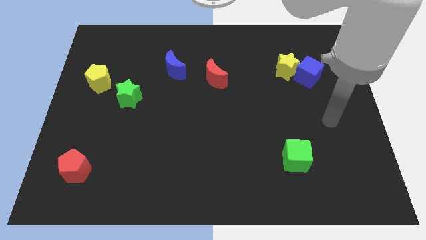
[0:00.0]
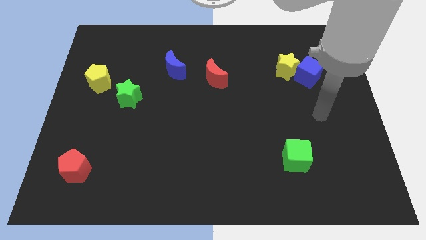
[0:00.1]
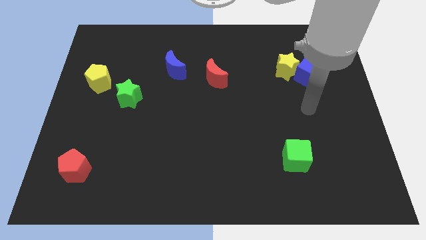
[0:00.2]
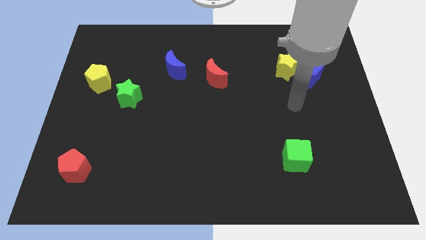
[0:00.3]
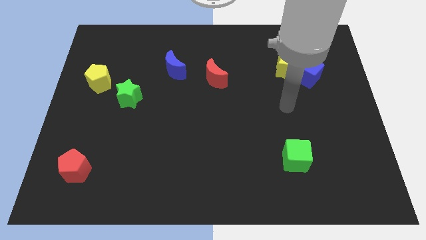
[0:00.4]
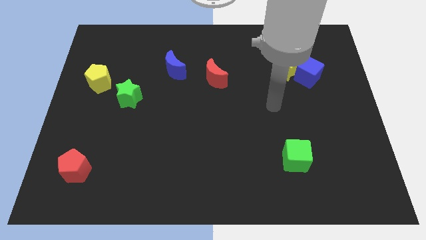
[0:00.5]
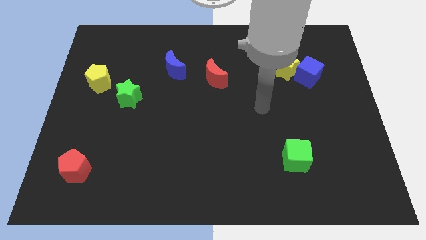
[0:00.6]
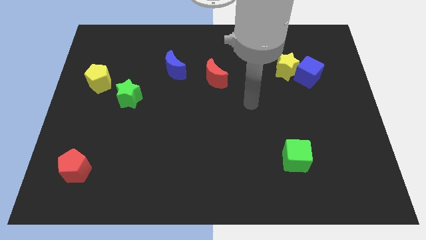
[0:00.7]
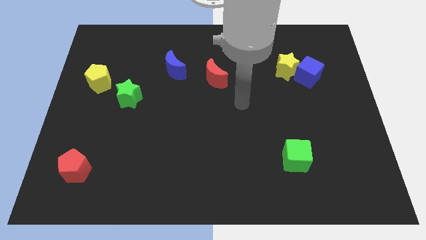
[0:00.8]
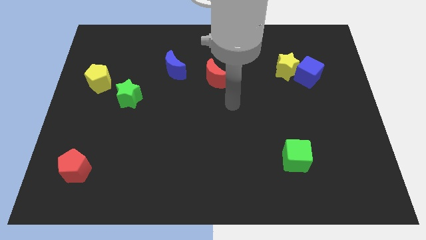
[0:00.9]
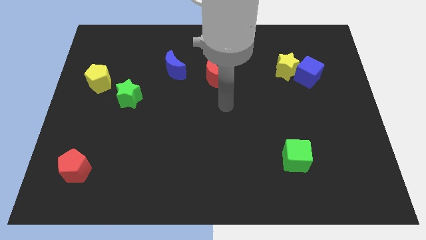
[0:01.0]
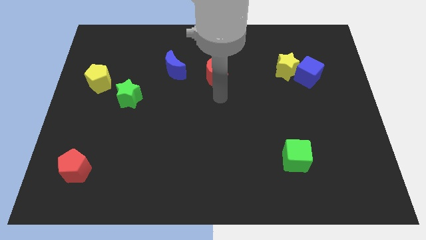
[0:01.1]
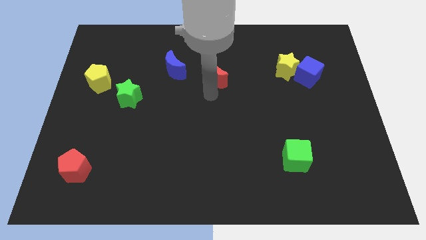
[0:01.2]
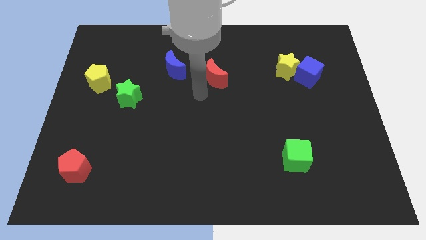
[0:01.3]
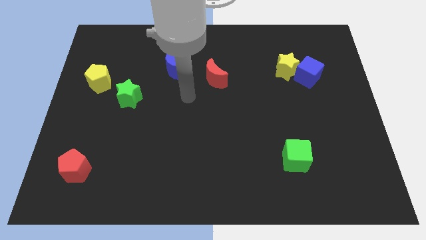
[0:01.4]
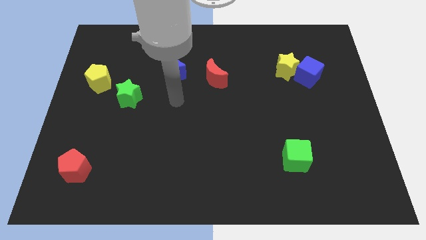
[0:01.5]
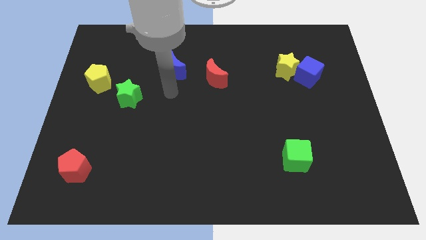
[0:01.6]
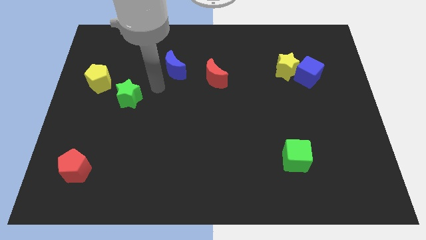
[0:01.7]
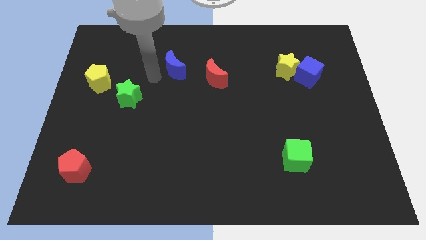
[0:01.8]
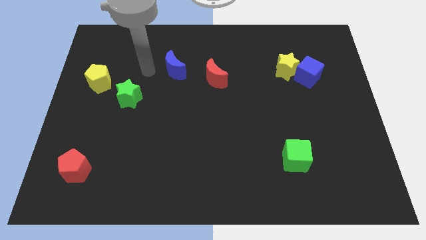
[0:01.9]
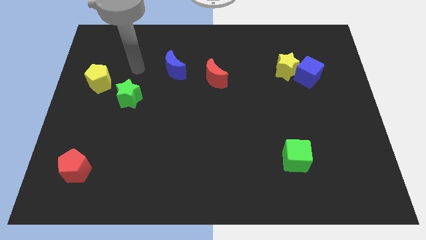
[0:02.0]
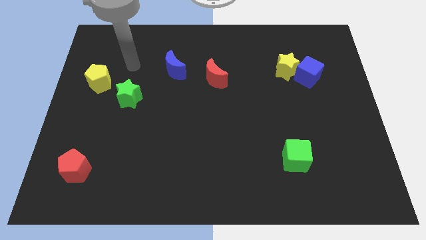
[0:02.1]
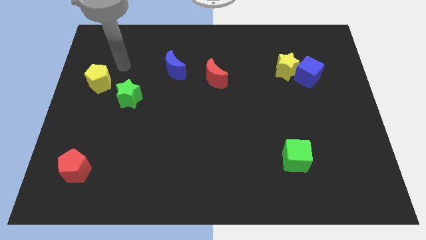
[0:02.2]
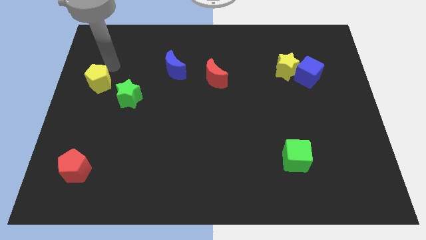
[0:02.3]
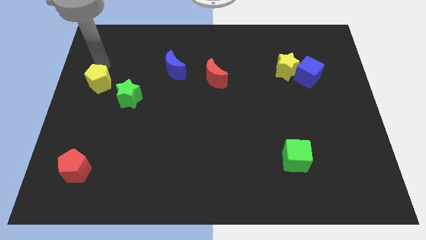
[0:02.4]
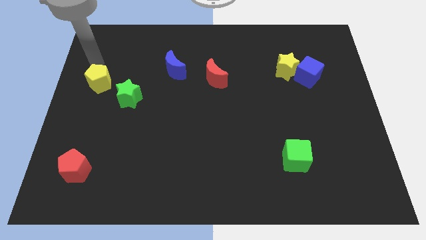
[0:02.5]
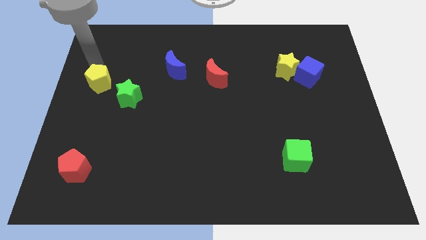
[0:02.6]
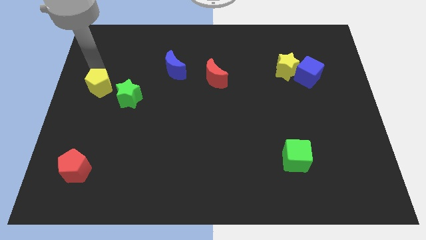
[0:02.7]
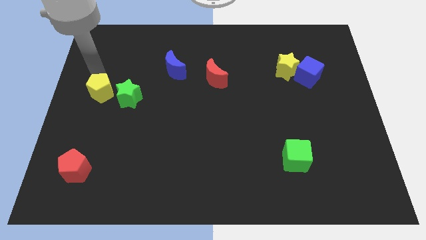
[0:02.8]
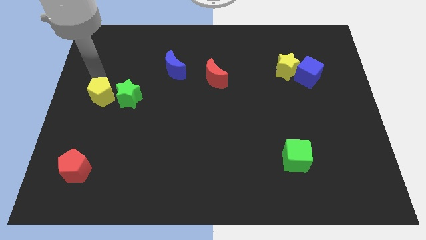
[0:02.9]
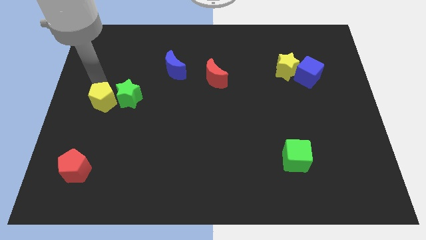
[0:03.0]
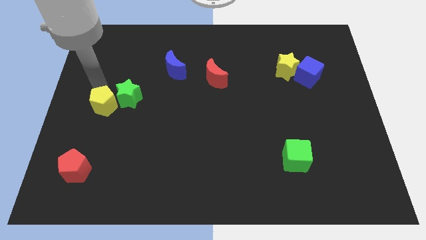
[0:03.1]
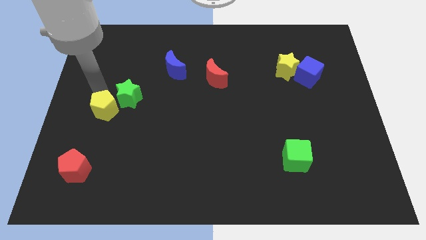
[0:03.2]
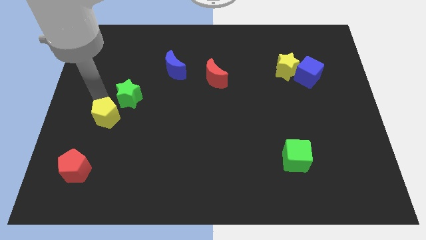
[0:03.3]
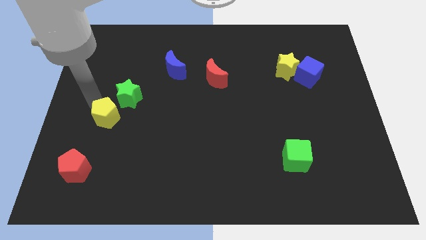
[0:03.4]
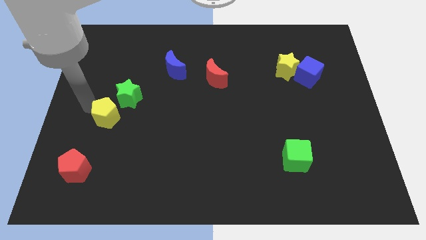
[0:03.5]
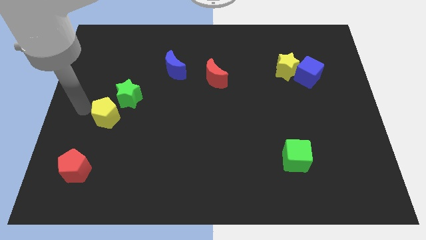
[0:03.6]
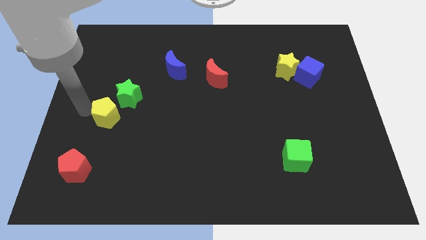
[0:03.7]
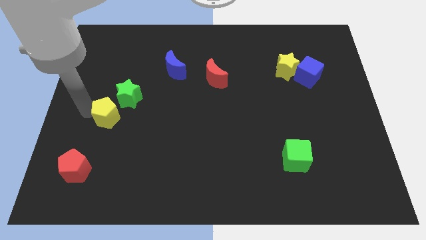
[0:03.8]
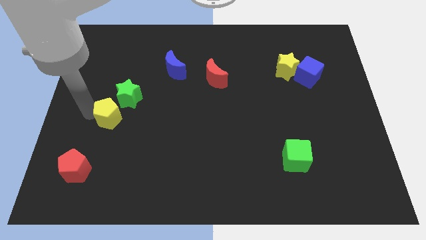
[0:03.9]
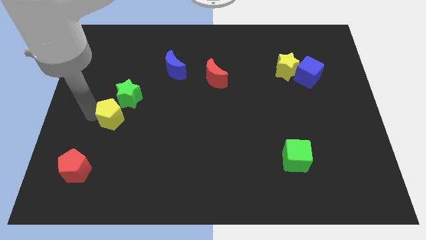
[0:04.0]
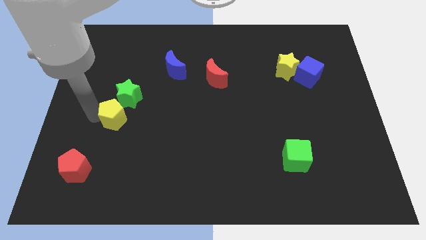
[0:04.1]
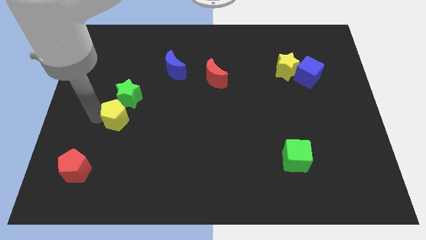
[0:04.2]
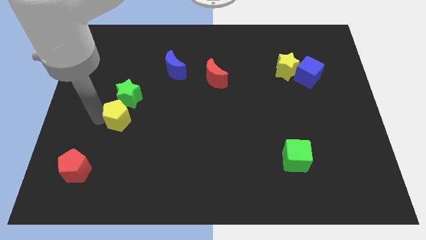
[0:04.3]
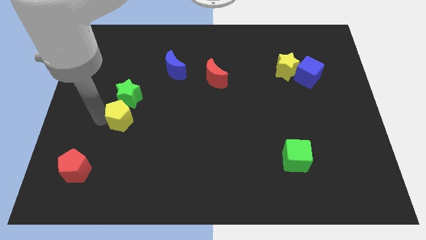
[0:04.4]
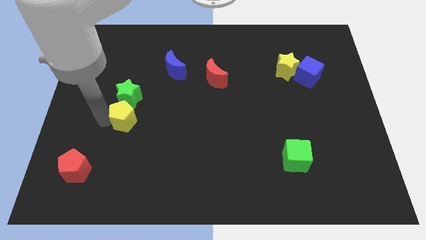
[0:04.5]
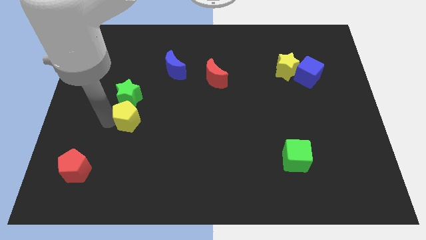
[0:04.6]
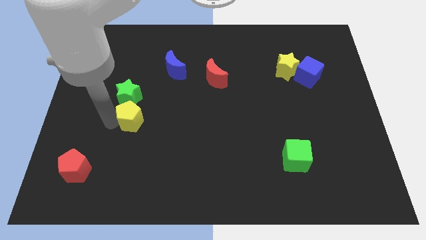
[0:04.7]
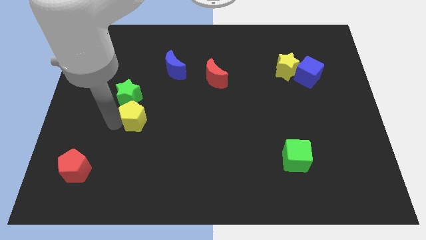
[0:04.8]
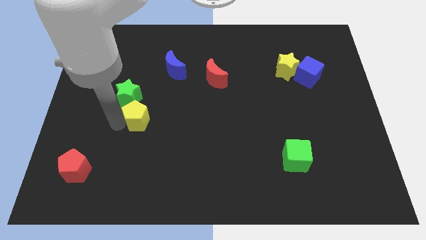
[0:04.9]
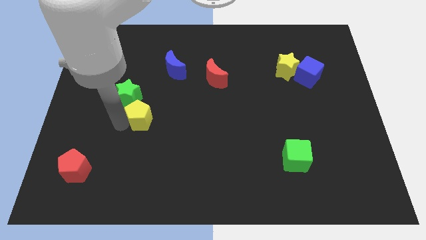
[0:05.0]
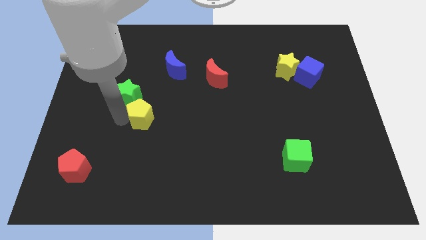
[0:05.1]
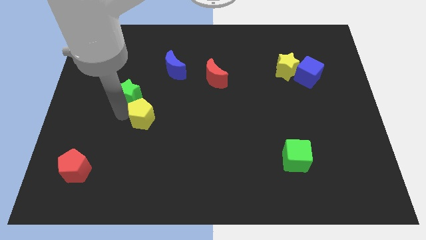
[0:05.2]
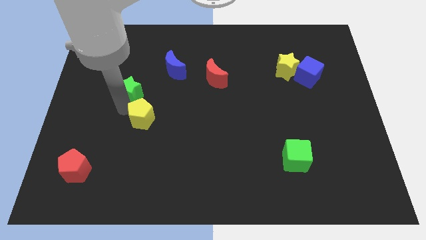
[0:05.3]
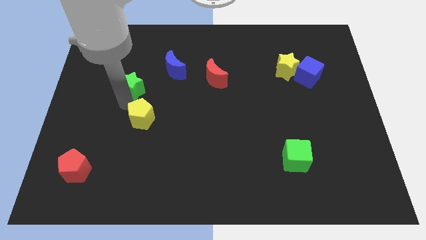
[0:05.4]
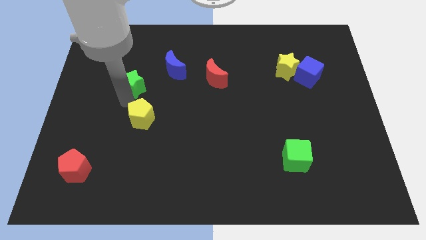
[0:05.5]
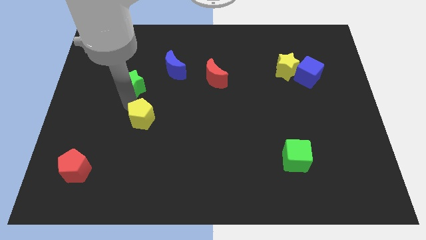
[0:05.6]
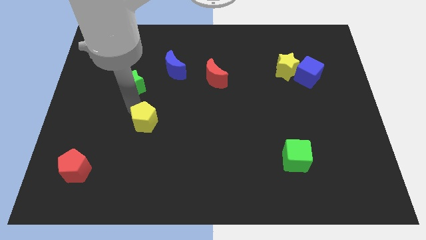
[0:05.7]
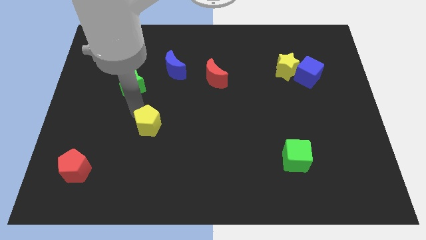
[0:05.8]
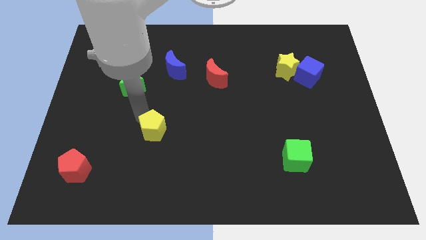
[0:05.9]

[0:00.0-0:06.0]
move the yellow pentagon diagonally down and to the right

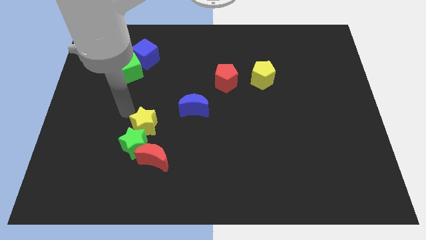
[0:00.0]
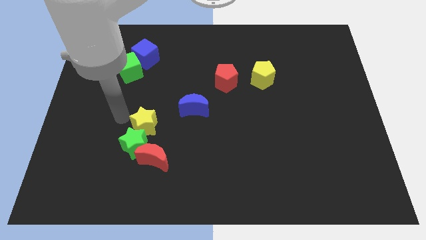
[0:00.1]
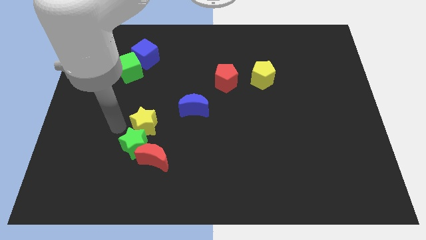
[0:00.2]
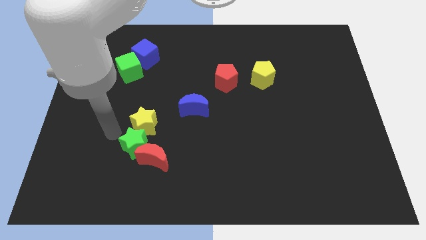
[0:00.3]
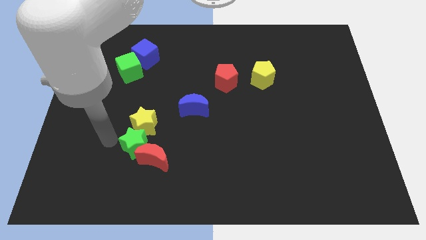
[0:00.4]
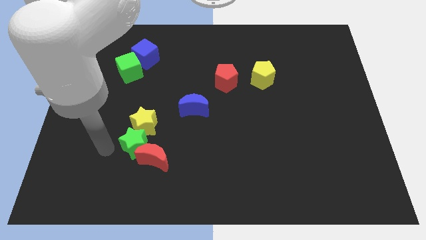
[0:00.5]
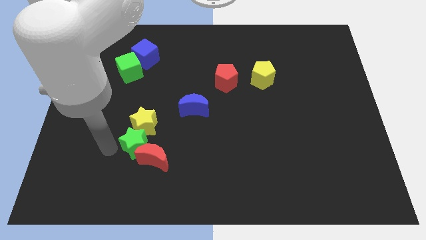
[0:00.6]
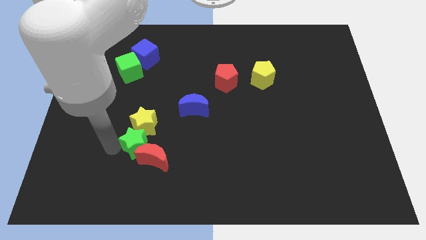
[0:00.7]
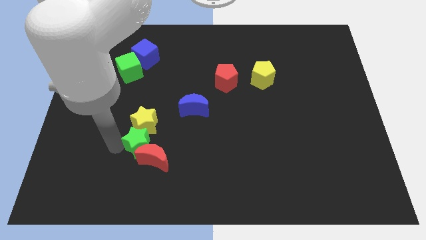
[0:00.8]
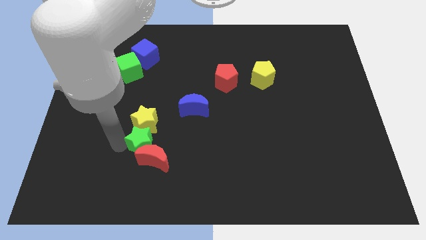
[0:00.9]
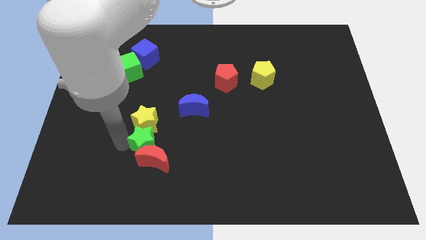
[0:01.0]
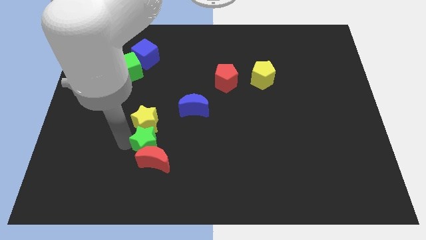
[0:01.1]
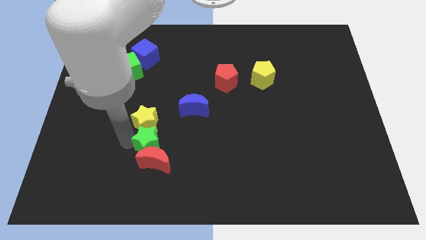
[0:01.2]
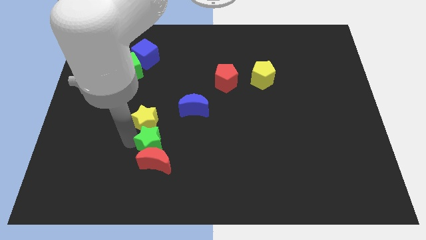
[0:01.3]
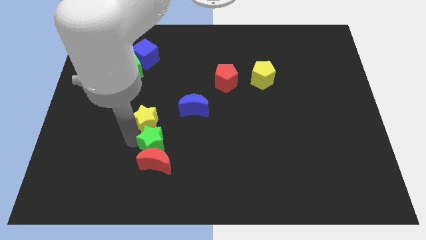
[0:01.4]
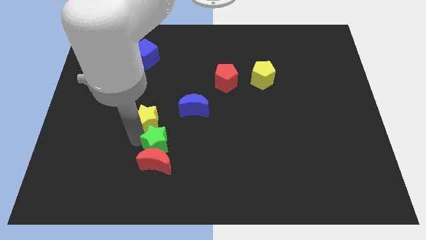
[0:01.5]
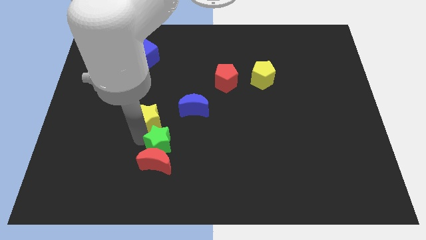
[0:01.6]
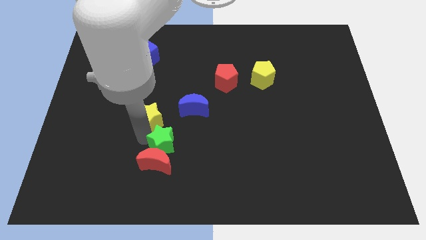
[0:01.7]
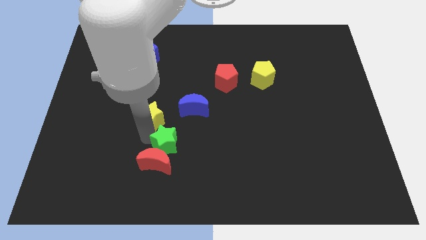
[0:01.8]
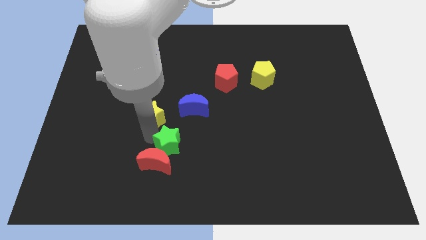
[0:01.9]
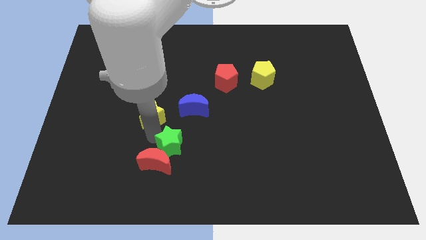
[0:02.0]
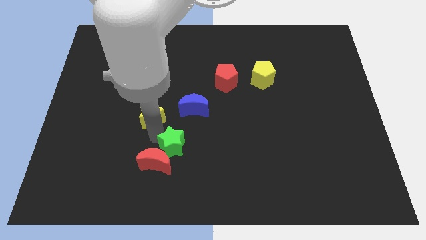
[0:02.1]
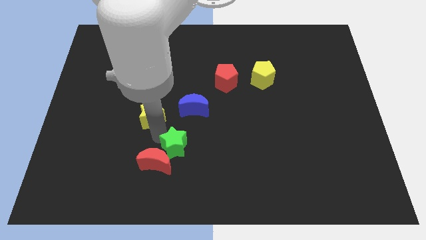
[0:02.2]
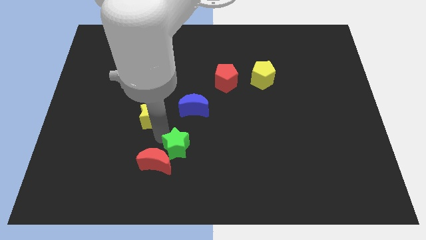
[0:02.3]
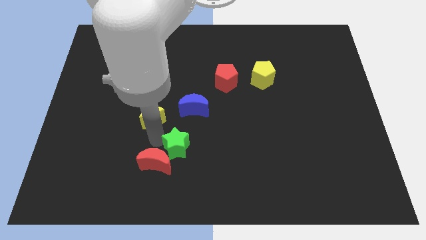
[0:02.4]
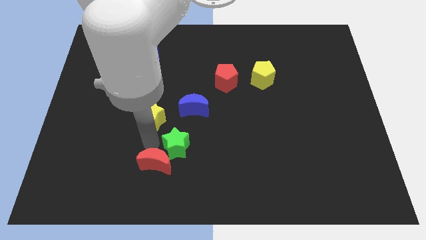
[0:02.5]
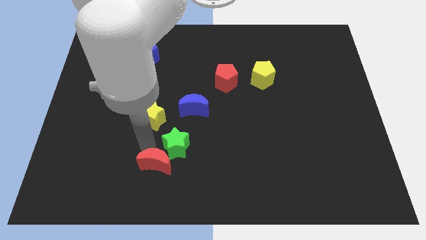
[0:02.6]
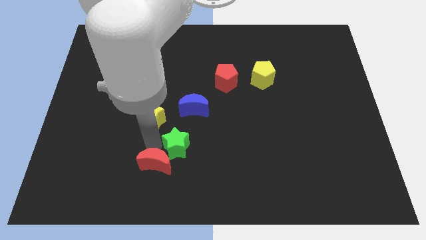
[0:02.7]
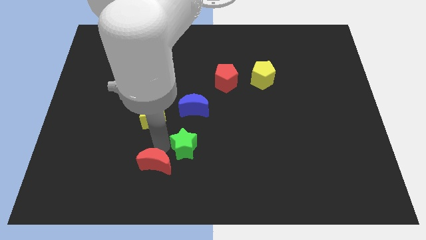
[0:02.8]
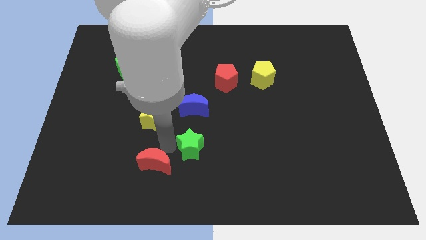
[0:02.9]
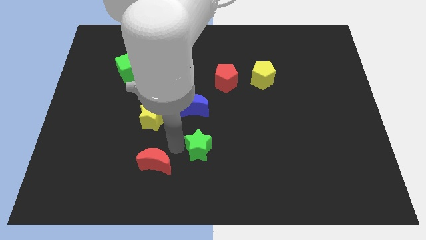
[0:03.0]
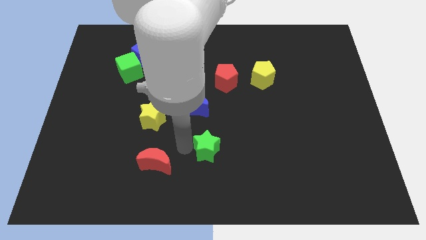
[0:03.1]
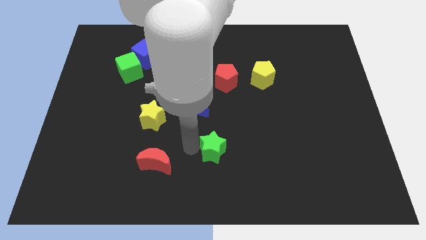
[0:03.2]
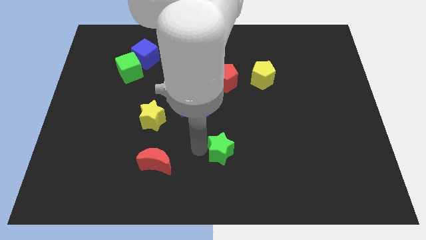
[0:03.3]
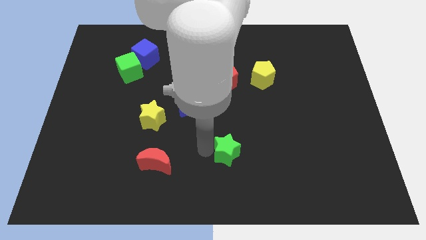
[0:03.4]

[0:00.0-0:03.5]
push the green star to the right
